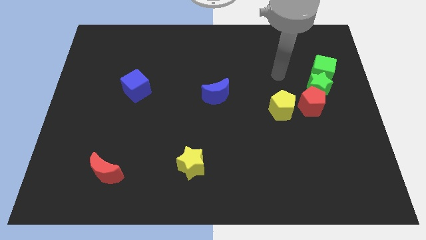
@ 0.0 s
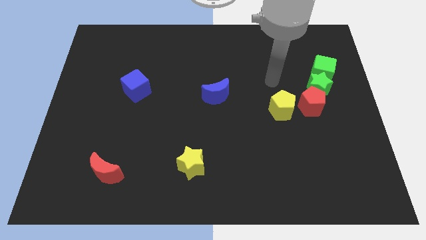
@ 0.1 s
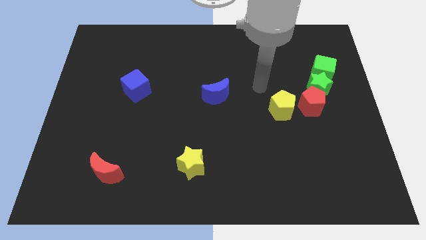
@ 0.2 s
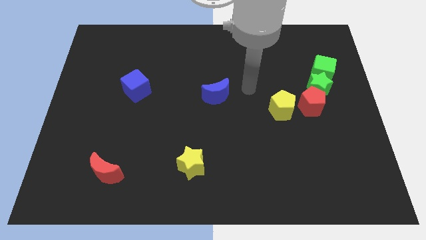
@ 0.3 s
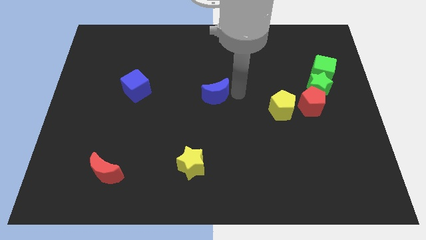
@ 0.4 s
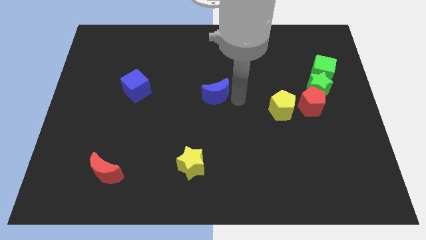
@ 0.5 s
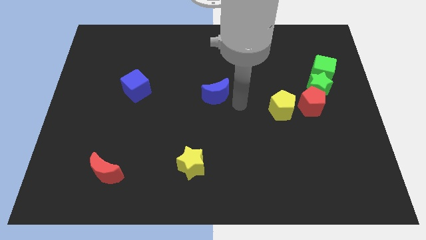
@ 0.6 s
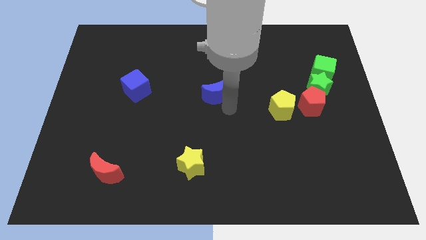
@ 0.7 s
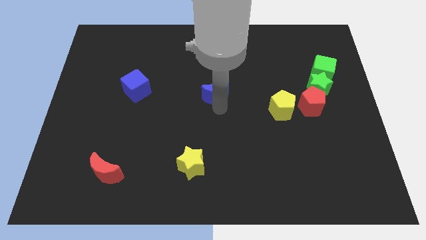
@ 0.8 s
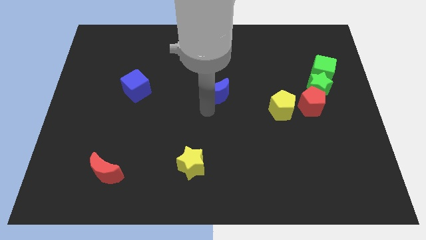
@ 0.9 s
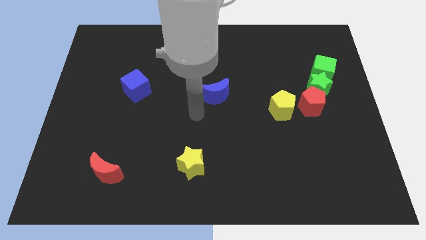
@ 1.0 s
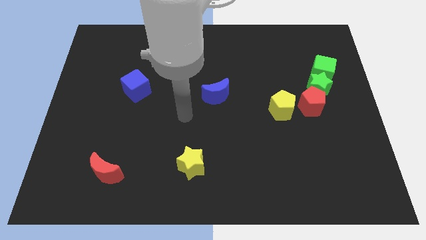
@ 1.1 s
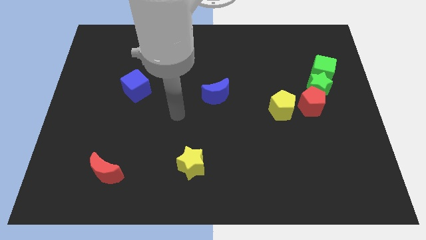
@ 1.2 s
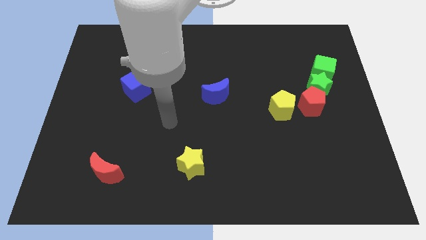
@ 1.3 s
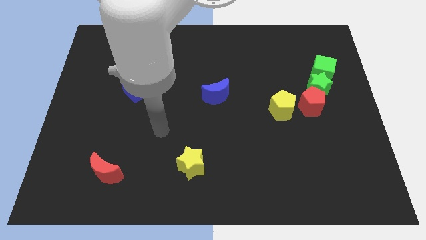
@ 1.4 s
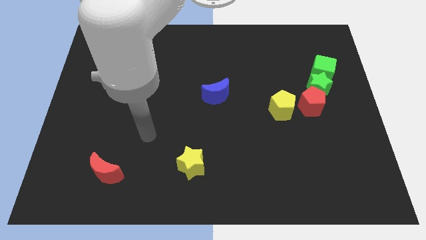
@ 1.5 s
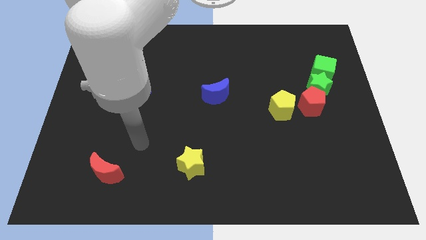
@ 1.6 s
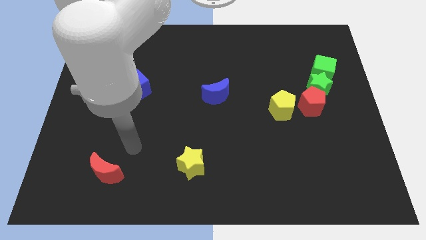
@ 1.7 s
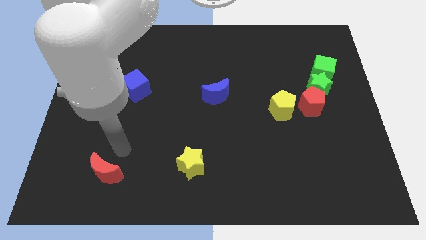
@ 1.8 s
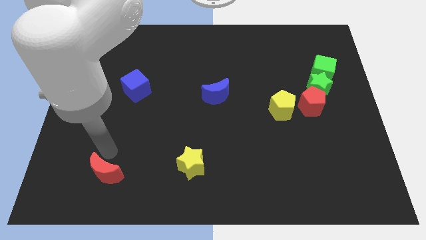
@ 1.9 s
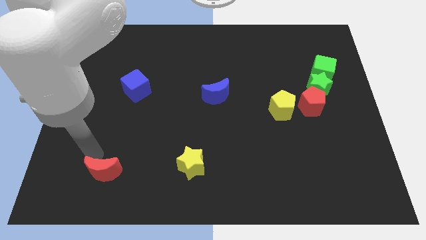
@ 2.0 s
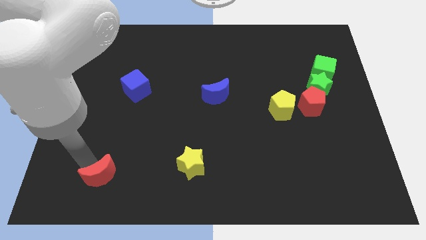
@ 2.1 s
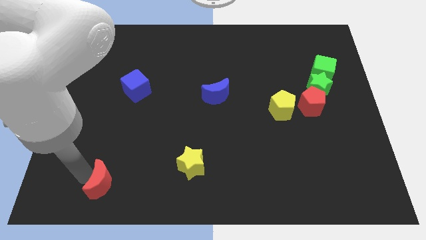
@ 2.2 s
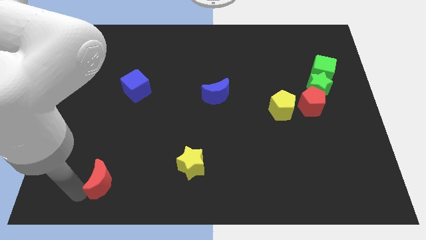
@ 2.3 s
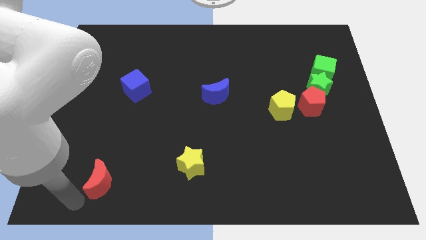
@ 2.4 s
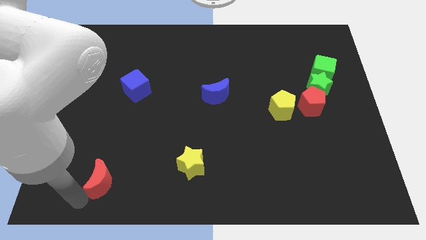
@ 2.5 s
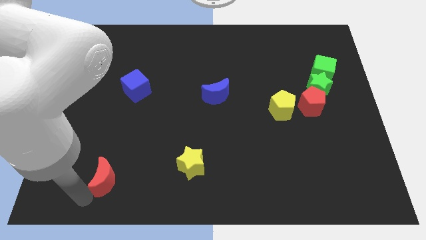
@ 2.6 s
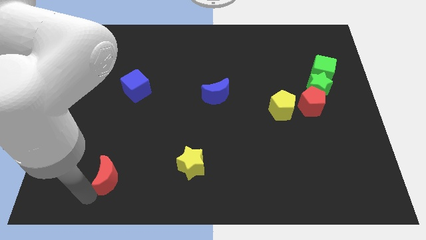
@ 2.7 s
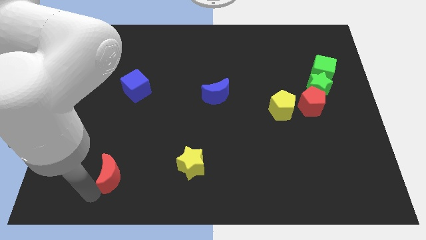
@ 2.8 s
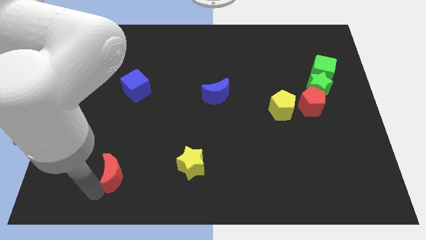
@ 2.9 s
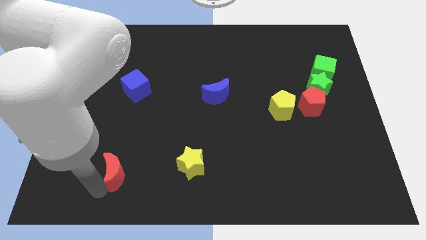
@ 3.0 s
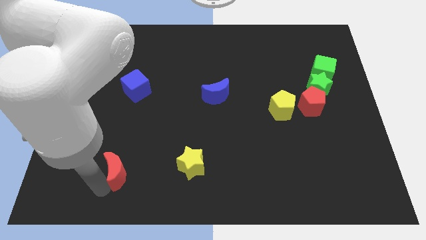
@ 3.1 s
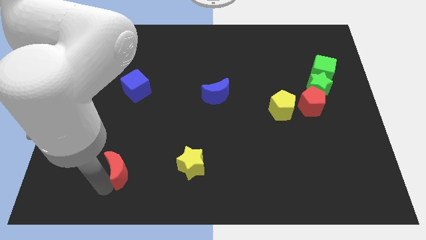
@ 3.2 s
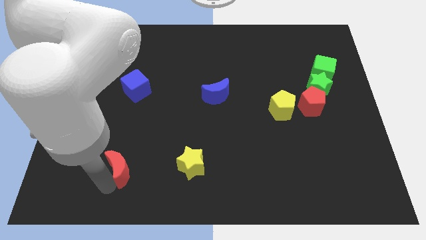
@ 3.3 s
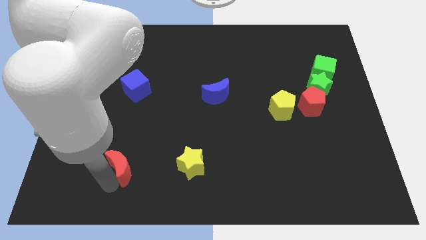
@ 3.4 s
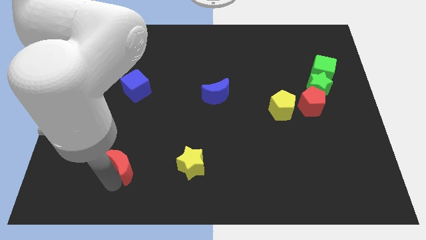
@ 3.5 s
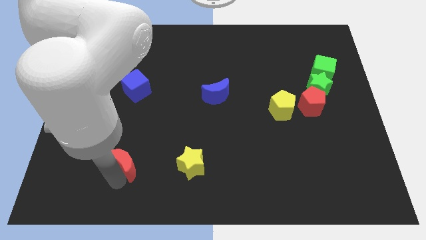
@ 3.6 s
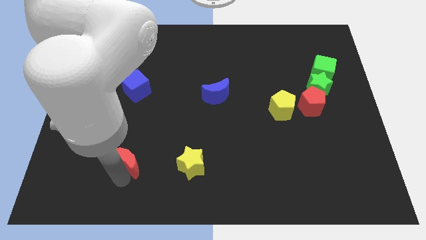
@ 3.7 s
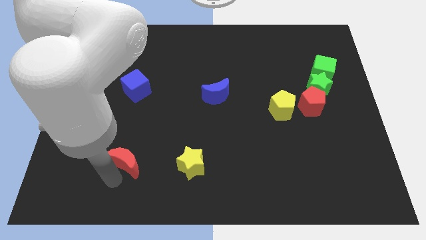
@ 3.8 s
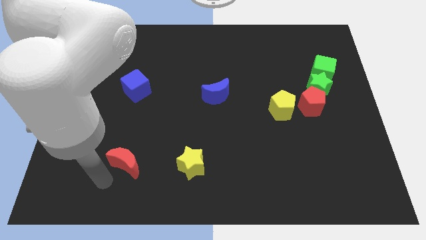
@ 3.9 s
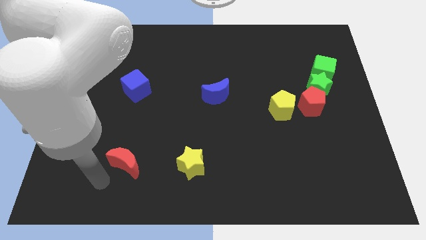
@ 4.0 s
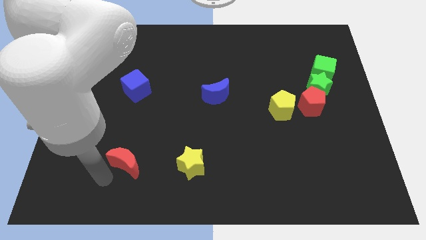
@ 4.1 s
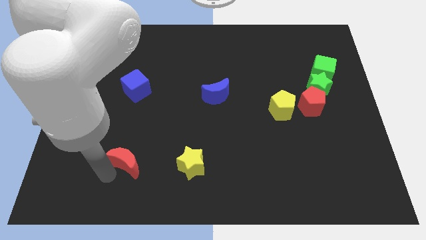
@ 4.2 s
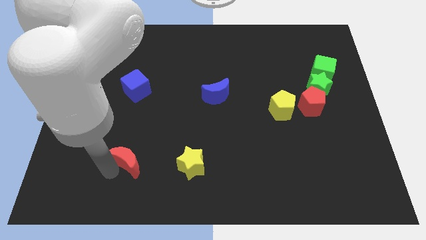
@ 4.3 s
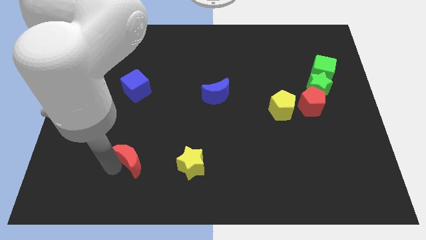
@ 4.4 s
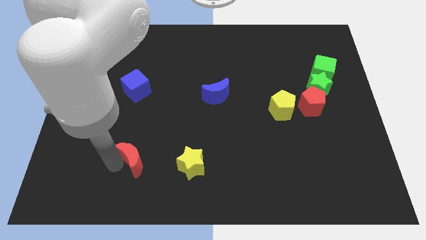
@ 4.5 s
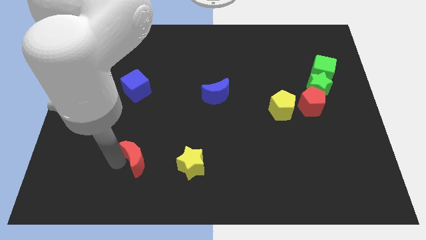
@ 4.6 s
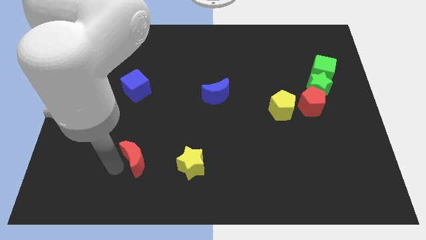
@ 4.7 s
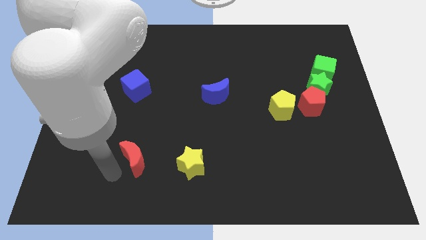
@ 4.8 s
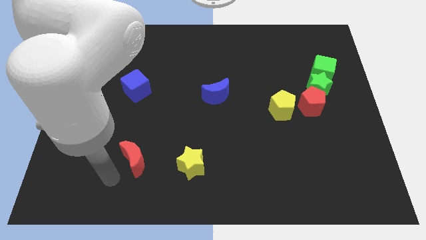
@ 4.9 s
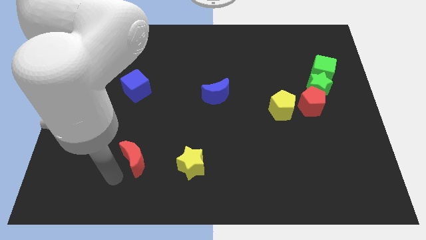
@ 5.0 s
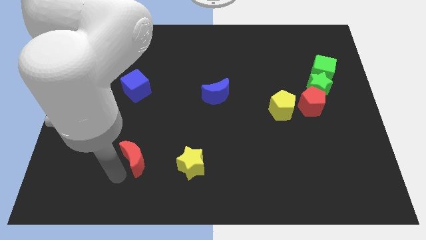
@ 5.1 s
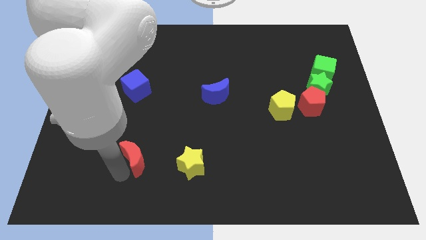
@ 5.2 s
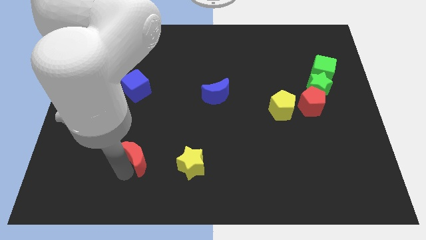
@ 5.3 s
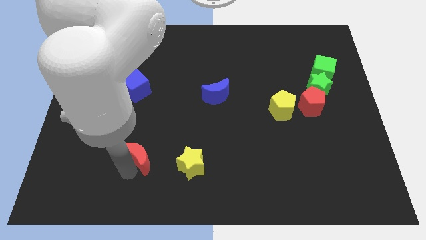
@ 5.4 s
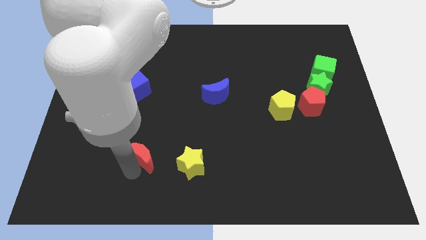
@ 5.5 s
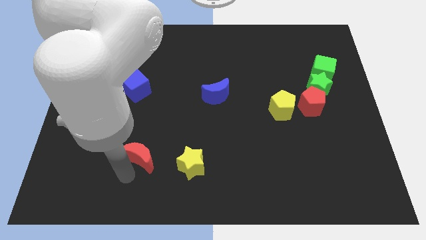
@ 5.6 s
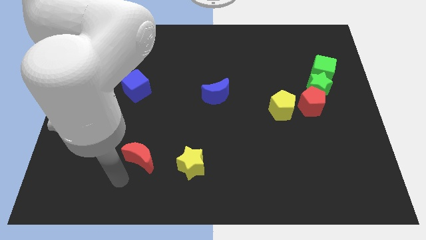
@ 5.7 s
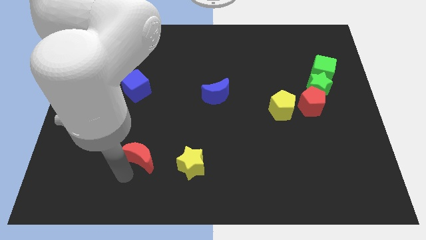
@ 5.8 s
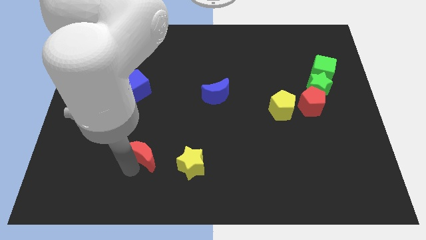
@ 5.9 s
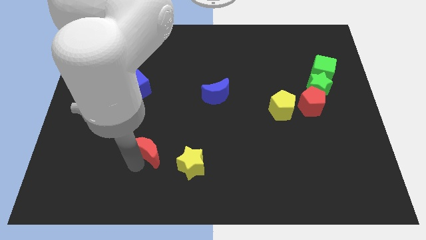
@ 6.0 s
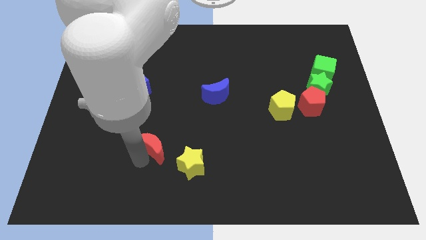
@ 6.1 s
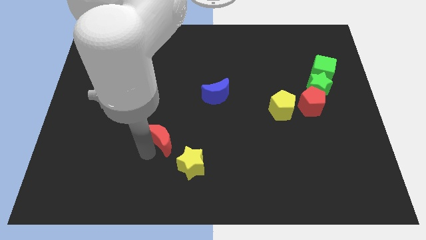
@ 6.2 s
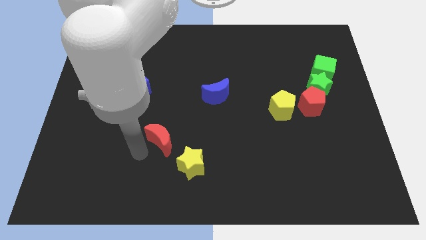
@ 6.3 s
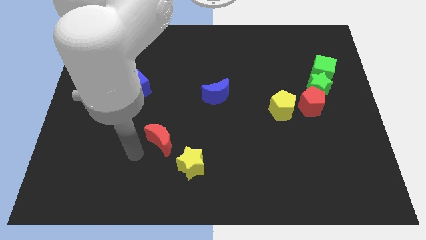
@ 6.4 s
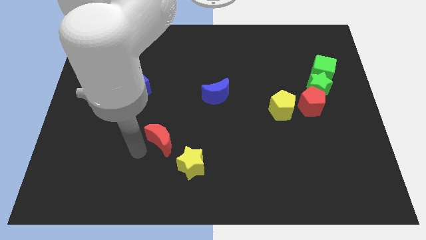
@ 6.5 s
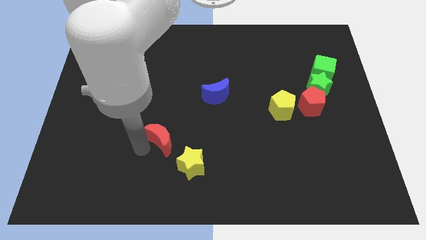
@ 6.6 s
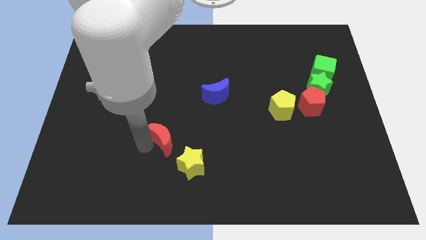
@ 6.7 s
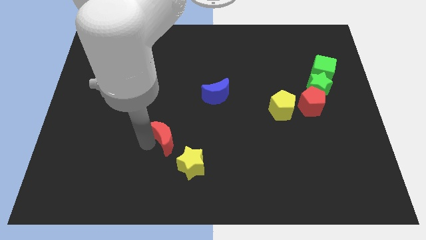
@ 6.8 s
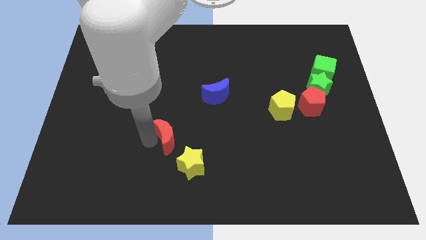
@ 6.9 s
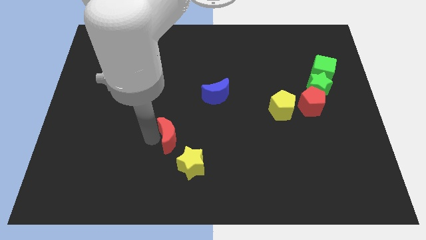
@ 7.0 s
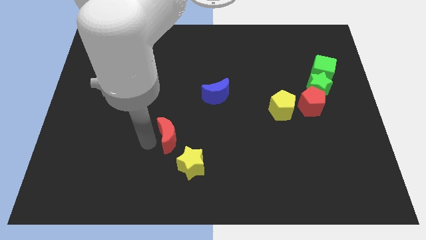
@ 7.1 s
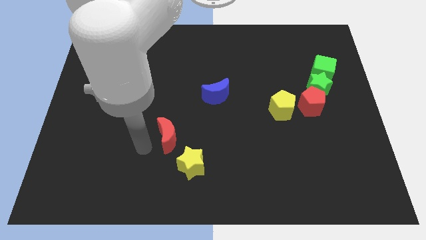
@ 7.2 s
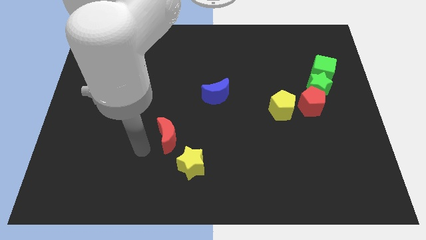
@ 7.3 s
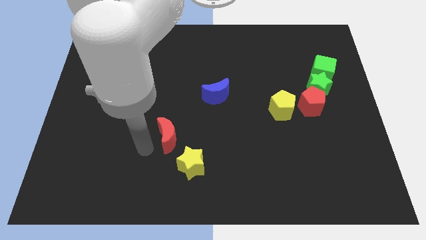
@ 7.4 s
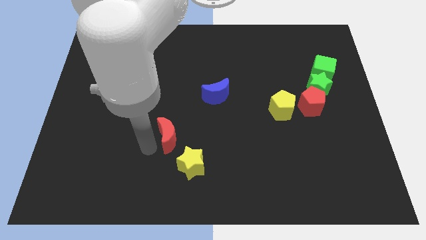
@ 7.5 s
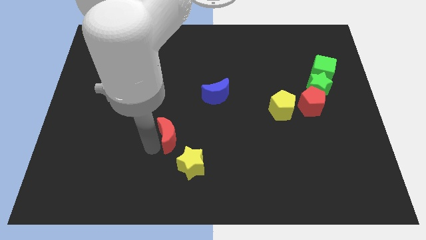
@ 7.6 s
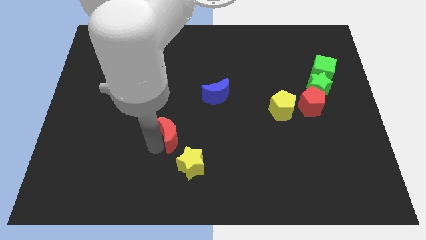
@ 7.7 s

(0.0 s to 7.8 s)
push the red moon to the top of the yellow star
